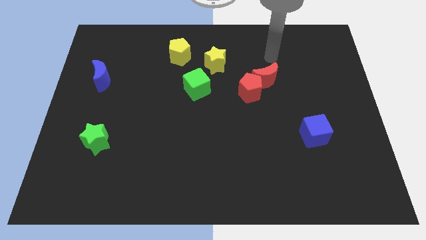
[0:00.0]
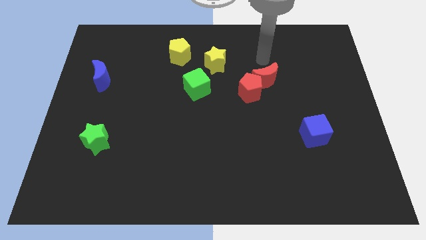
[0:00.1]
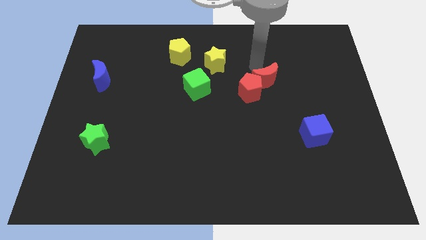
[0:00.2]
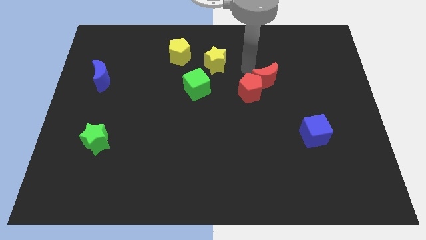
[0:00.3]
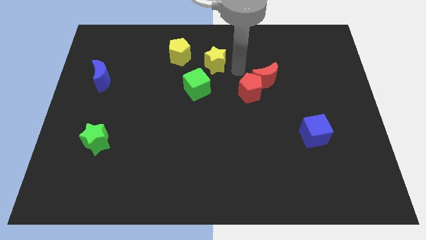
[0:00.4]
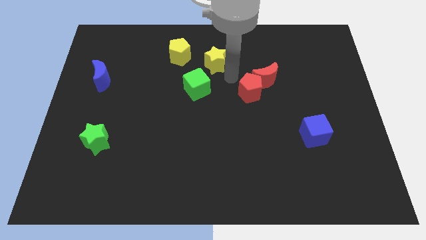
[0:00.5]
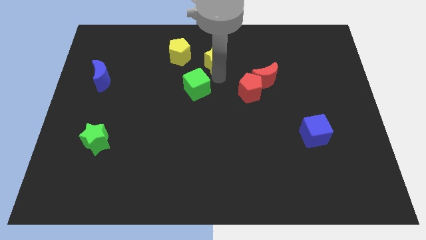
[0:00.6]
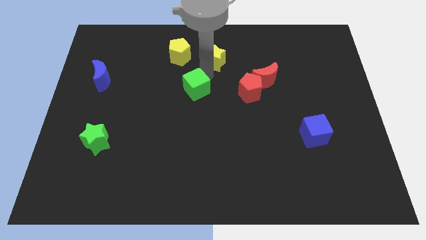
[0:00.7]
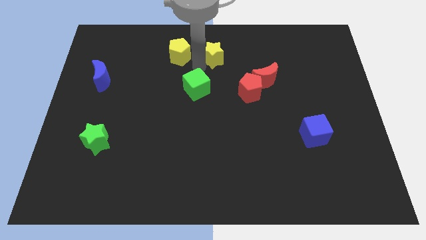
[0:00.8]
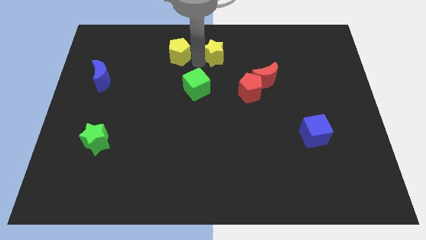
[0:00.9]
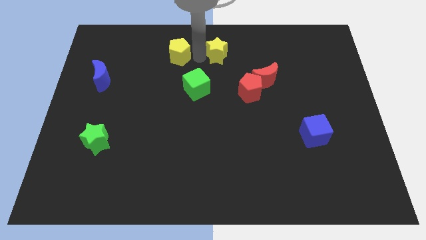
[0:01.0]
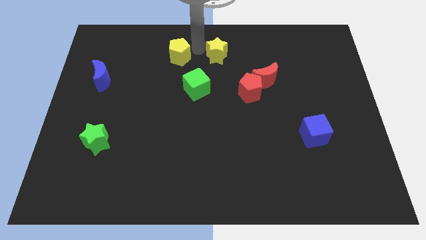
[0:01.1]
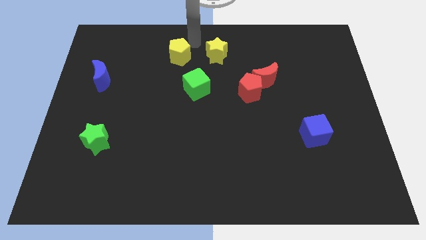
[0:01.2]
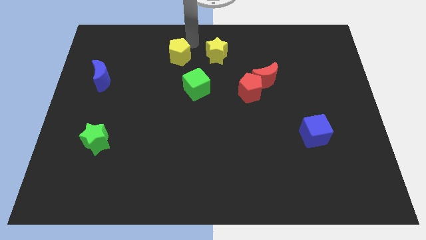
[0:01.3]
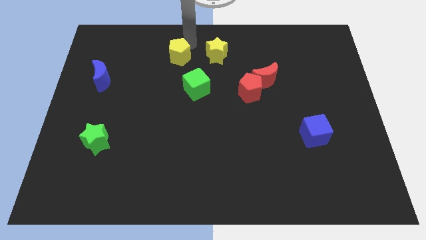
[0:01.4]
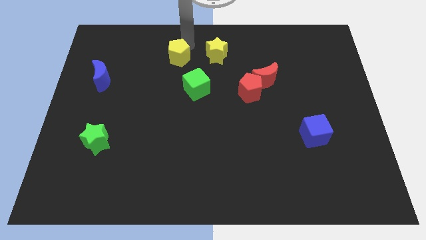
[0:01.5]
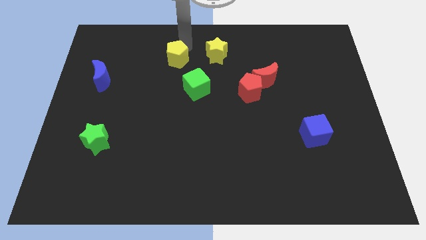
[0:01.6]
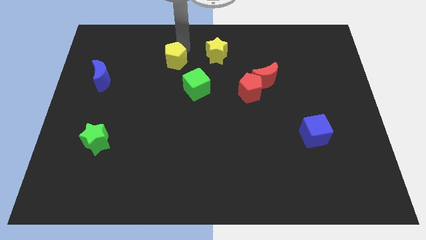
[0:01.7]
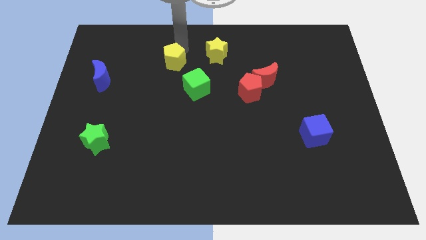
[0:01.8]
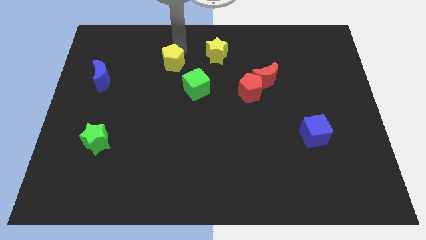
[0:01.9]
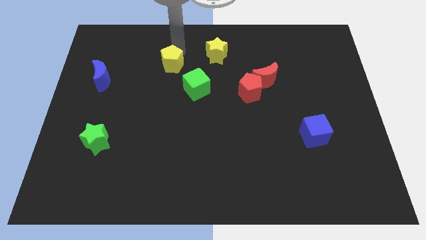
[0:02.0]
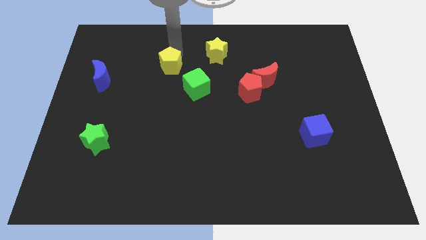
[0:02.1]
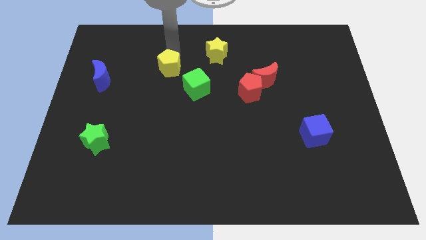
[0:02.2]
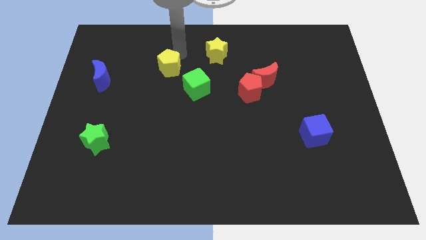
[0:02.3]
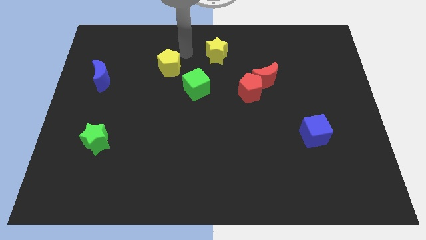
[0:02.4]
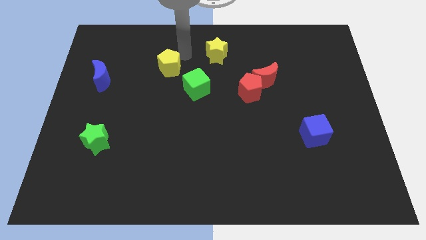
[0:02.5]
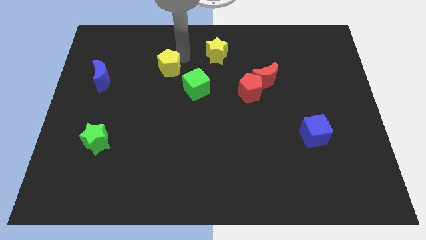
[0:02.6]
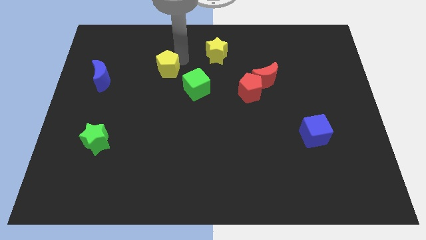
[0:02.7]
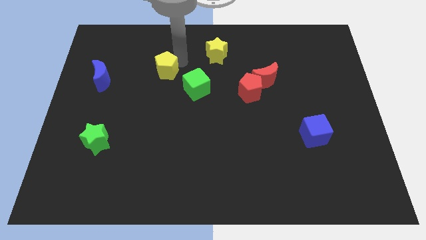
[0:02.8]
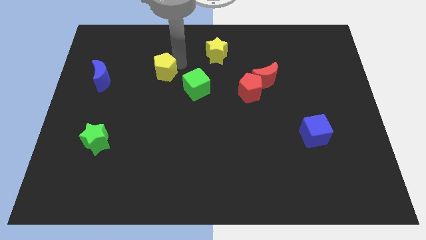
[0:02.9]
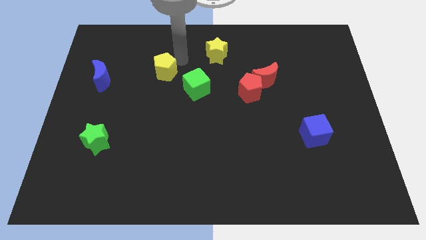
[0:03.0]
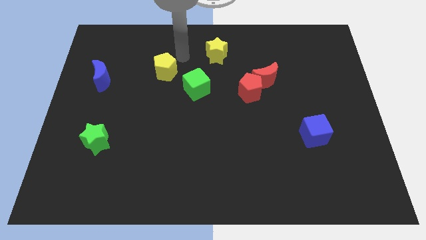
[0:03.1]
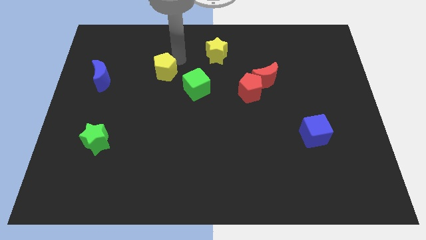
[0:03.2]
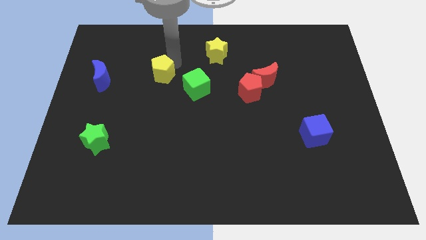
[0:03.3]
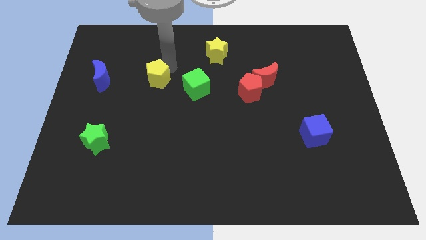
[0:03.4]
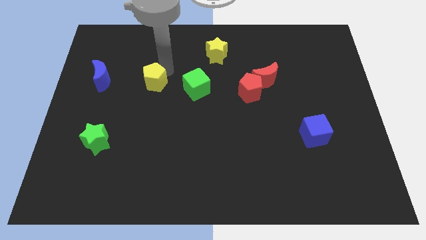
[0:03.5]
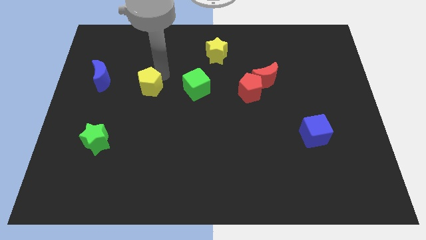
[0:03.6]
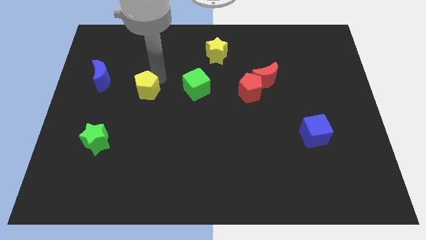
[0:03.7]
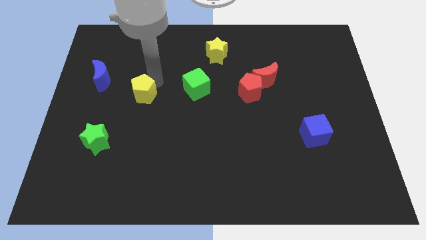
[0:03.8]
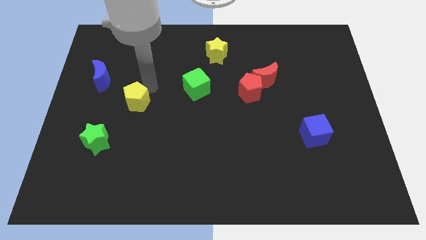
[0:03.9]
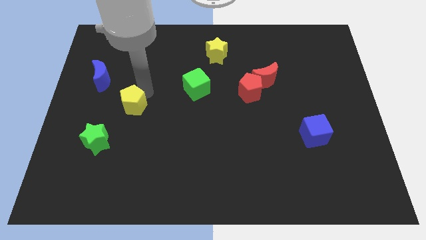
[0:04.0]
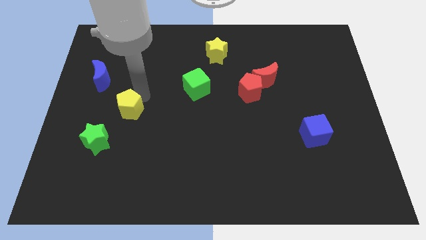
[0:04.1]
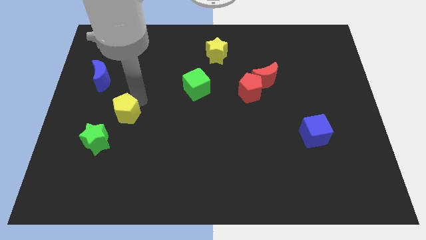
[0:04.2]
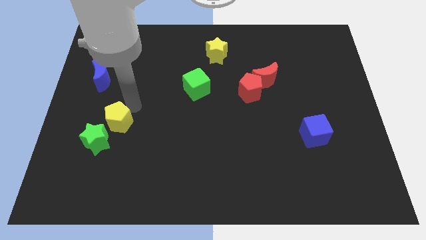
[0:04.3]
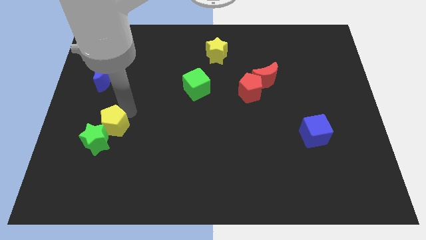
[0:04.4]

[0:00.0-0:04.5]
push the yellow pentagon to the green star

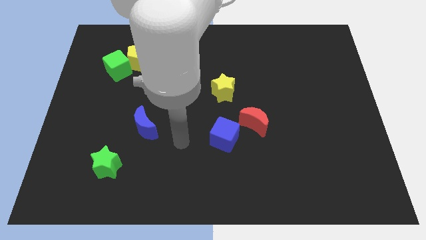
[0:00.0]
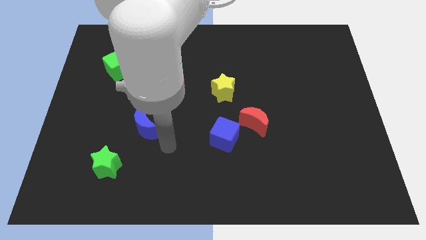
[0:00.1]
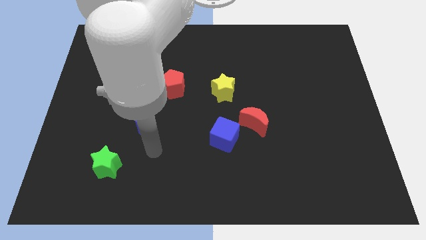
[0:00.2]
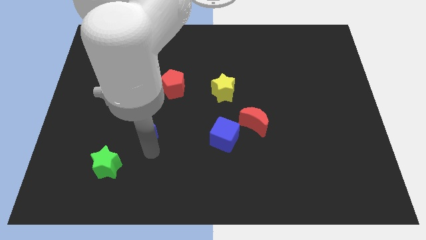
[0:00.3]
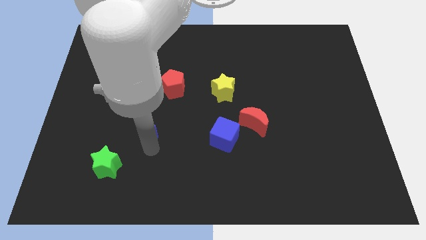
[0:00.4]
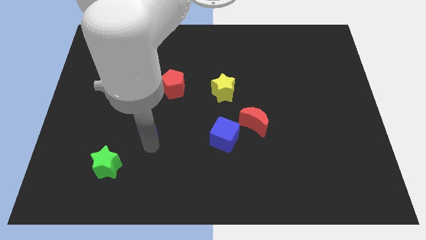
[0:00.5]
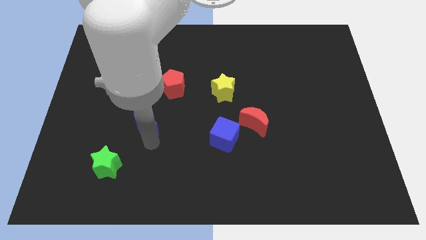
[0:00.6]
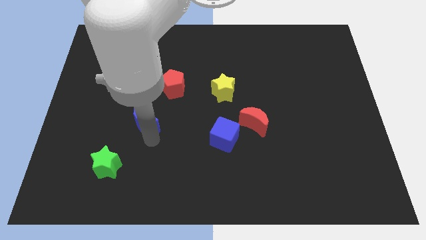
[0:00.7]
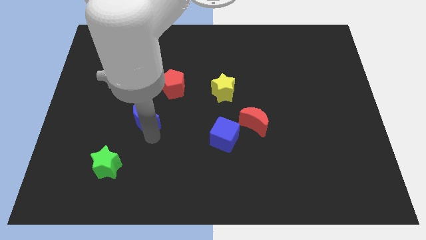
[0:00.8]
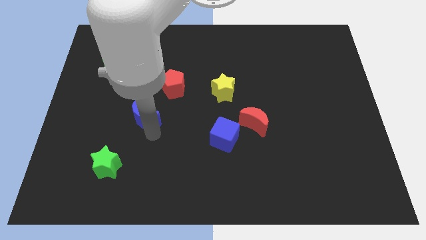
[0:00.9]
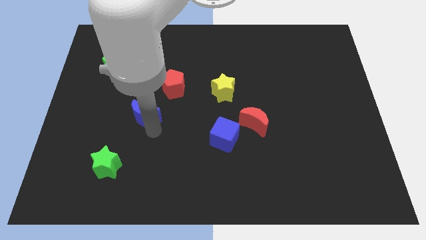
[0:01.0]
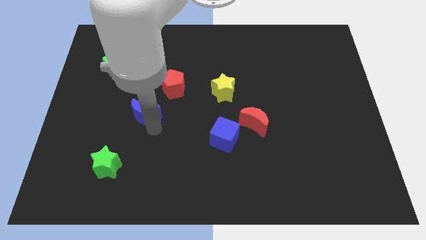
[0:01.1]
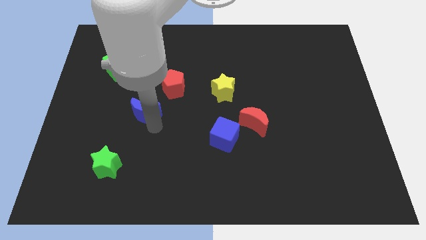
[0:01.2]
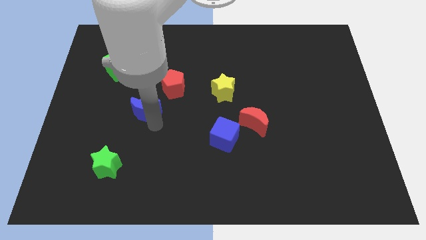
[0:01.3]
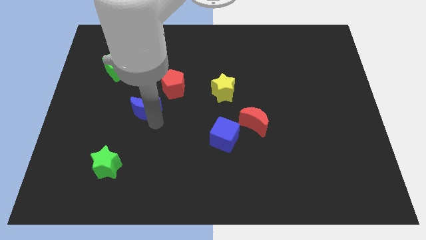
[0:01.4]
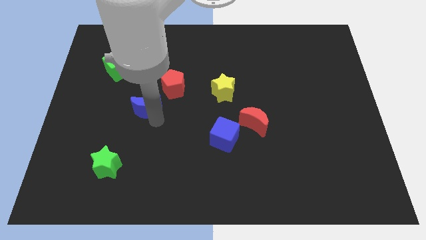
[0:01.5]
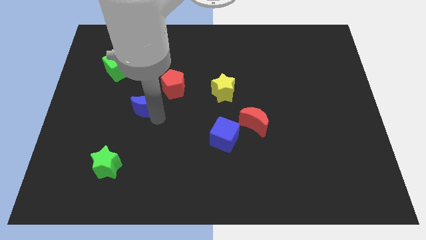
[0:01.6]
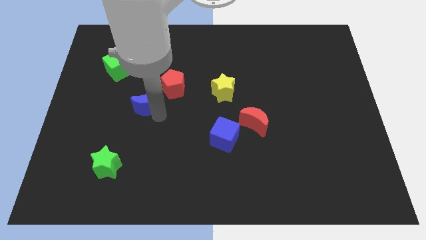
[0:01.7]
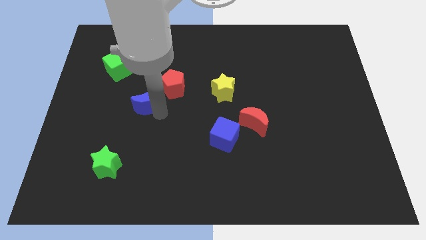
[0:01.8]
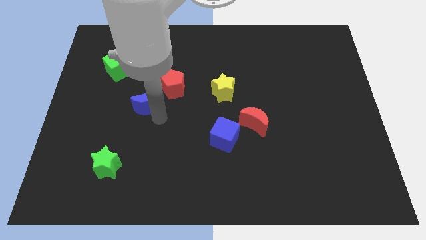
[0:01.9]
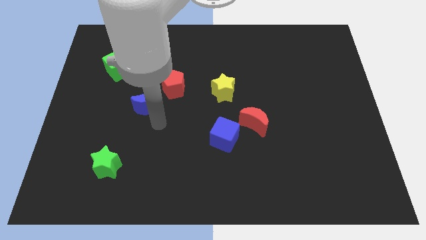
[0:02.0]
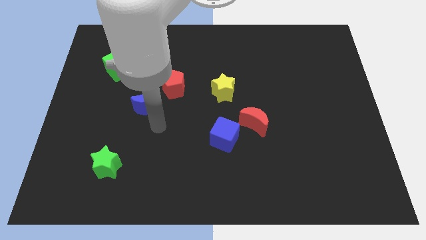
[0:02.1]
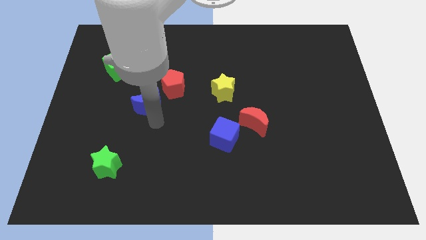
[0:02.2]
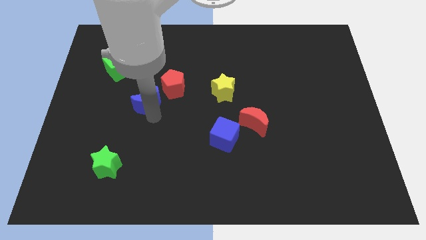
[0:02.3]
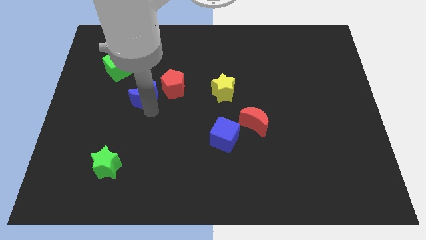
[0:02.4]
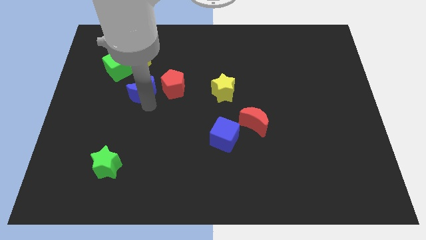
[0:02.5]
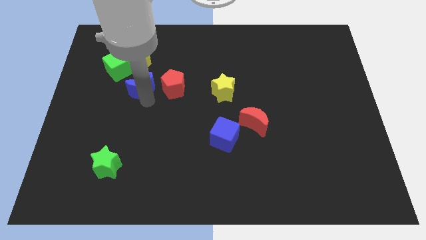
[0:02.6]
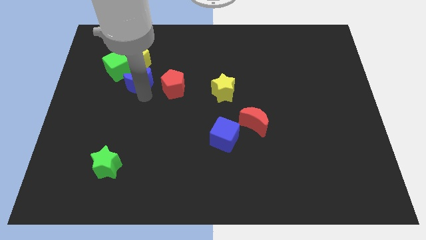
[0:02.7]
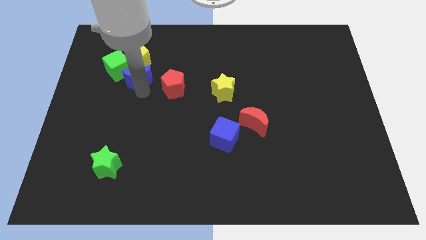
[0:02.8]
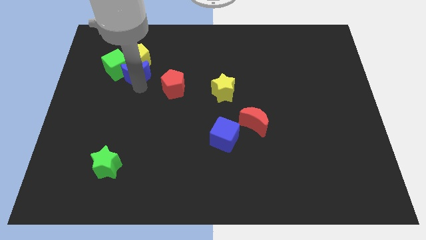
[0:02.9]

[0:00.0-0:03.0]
push the blue moon next to the yellow pentagon

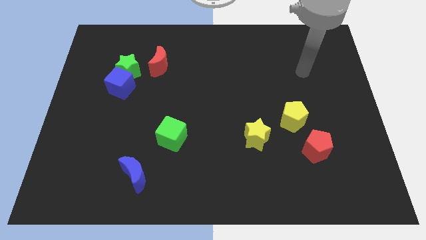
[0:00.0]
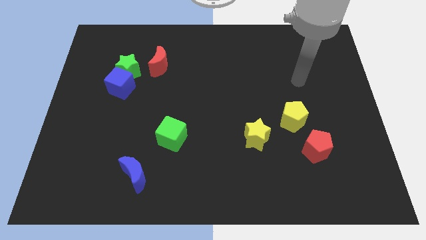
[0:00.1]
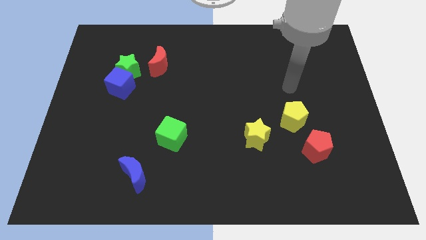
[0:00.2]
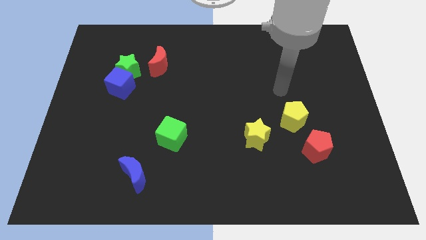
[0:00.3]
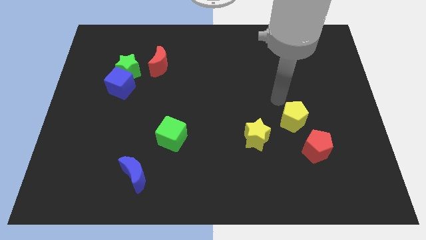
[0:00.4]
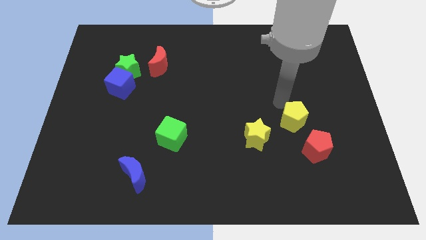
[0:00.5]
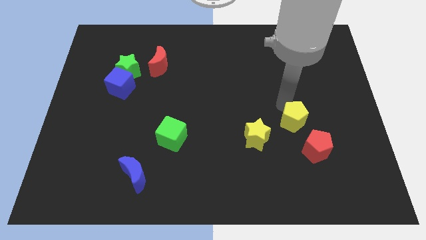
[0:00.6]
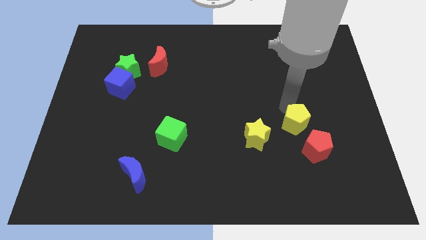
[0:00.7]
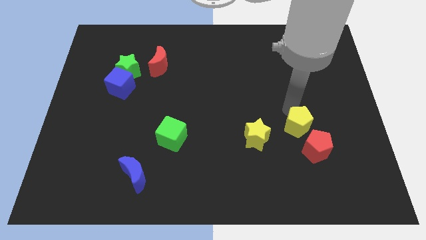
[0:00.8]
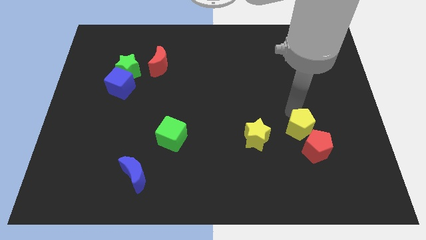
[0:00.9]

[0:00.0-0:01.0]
move the yellow pentagon next to the red pentagon
